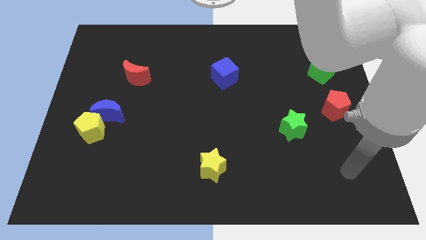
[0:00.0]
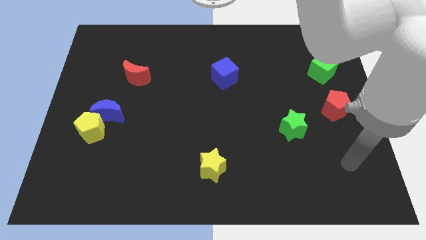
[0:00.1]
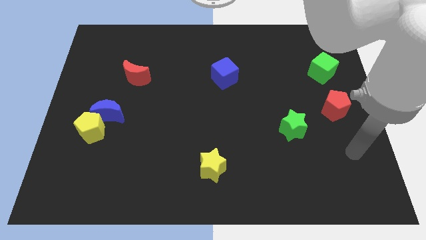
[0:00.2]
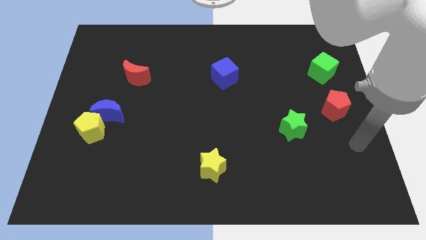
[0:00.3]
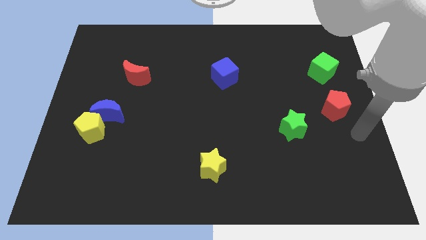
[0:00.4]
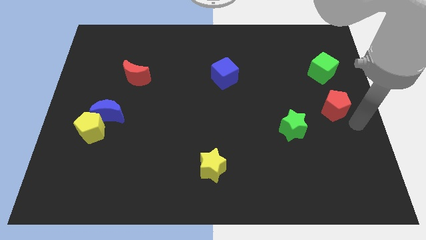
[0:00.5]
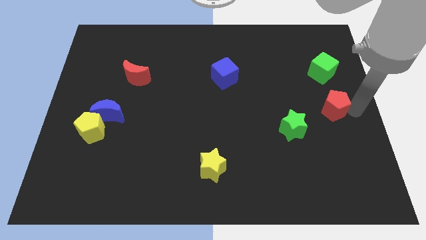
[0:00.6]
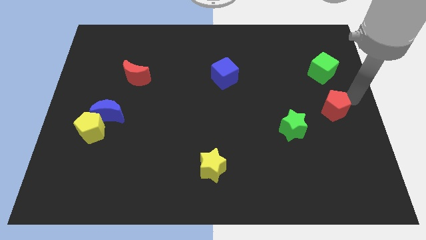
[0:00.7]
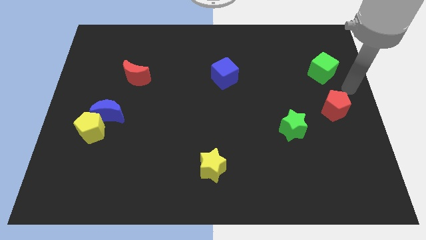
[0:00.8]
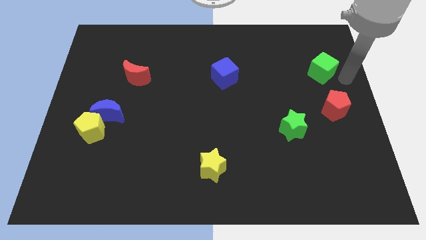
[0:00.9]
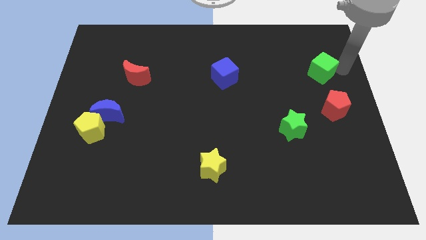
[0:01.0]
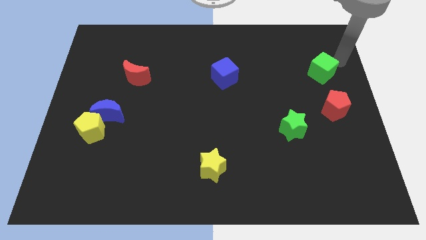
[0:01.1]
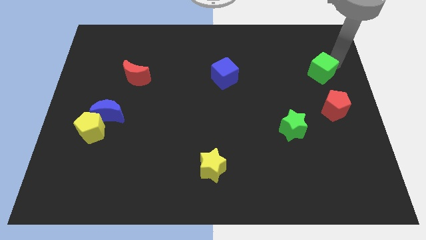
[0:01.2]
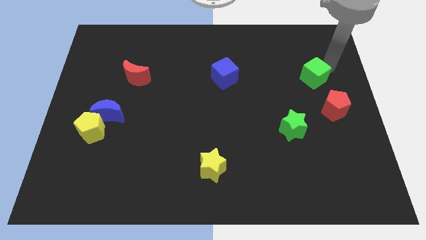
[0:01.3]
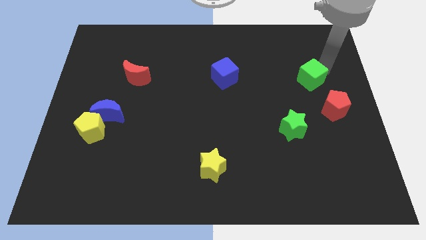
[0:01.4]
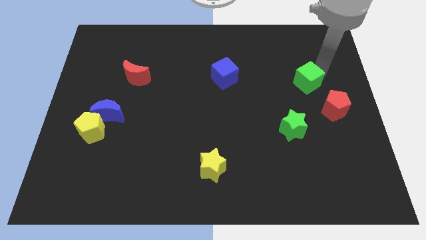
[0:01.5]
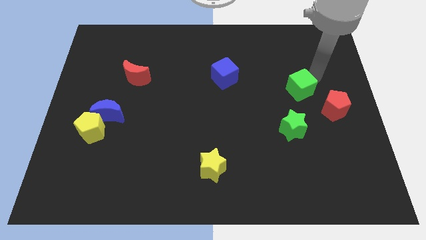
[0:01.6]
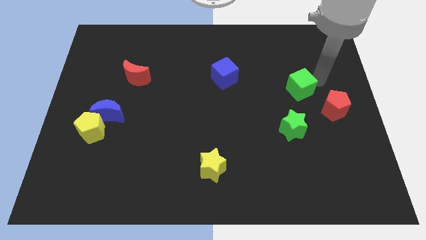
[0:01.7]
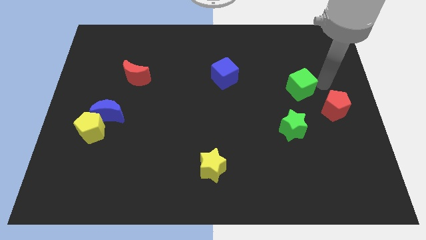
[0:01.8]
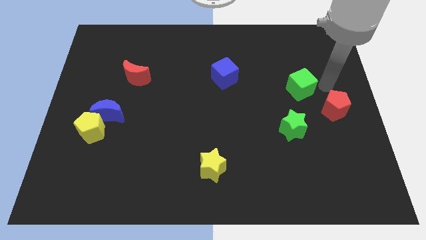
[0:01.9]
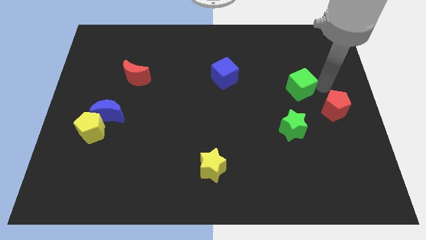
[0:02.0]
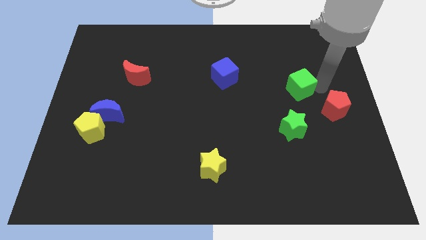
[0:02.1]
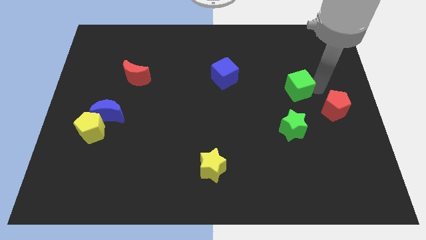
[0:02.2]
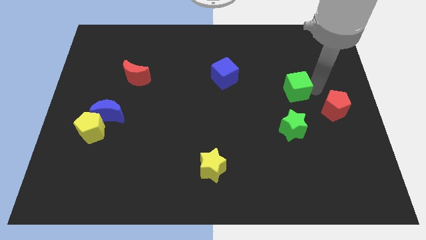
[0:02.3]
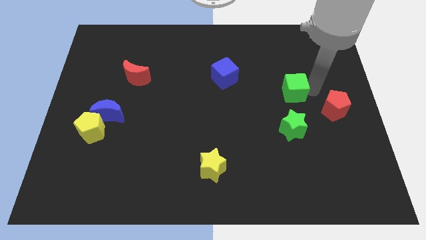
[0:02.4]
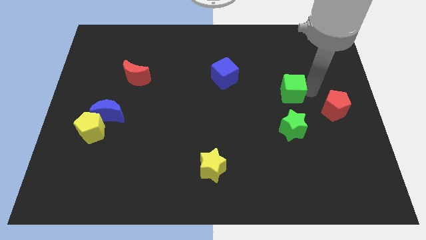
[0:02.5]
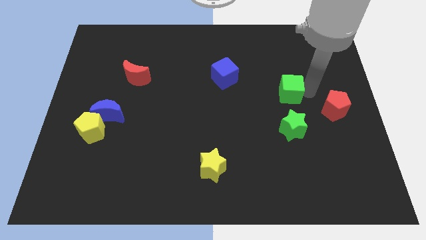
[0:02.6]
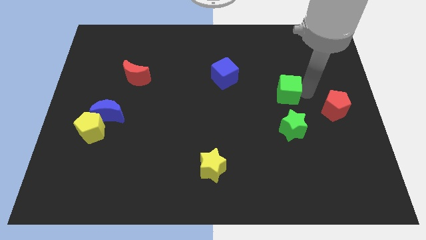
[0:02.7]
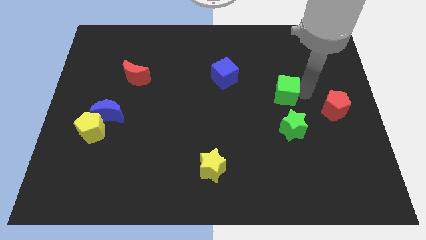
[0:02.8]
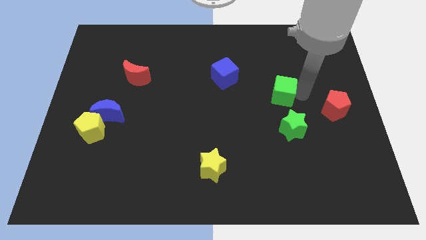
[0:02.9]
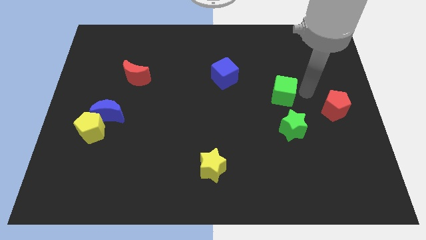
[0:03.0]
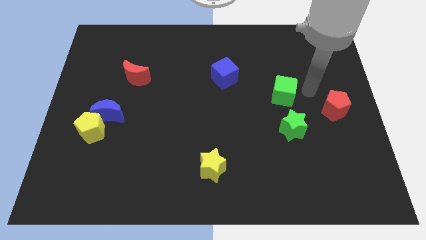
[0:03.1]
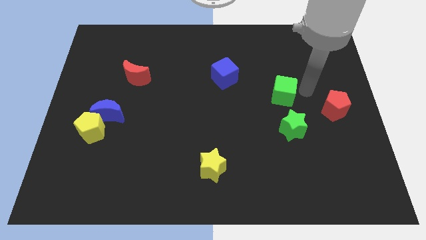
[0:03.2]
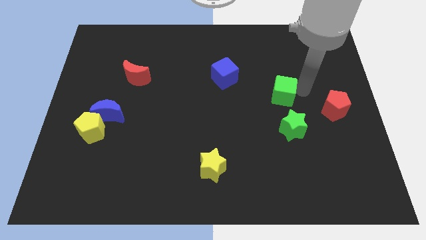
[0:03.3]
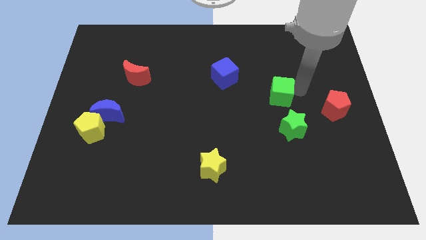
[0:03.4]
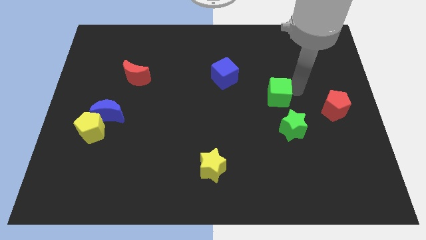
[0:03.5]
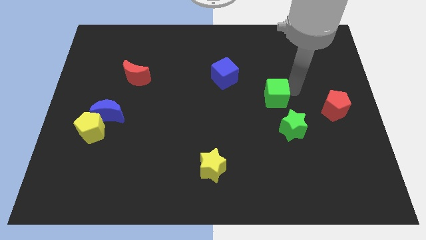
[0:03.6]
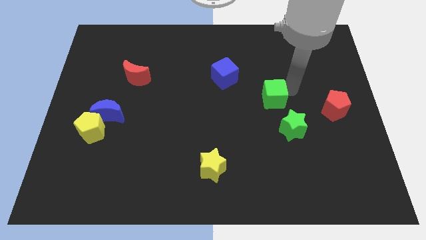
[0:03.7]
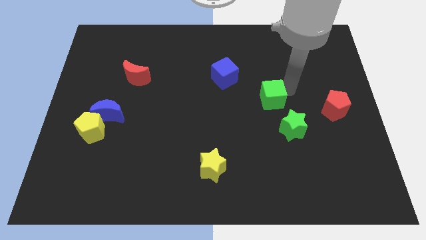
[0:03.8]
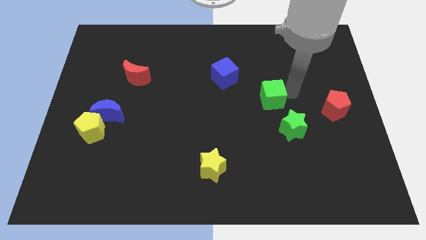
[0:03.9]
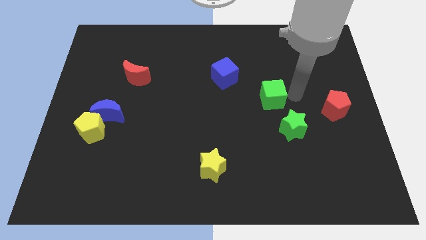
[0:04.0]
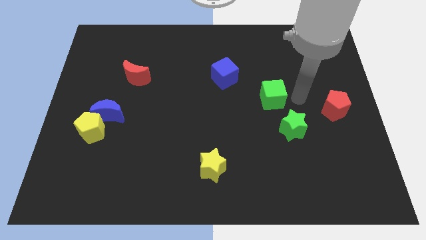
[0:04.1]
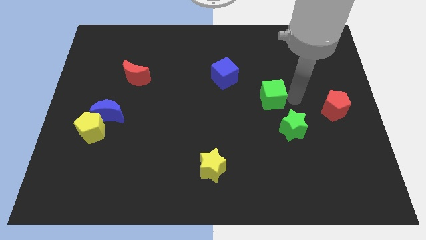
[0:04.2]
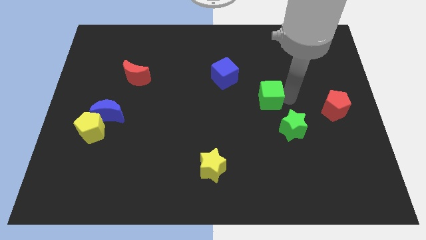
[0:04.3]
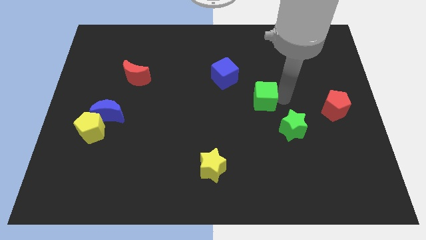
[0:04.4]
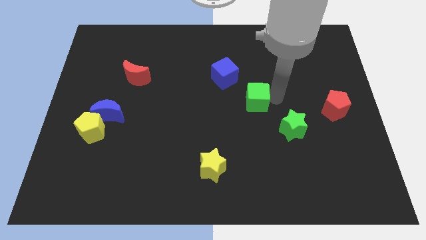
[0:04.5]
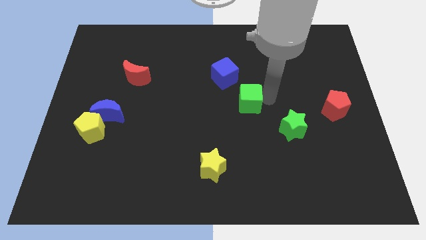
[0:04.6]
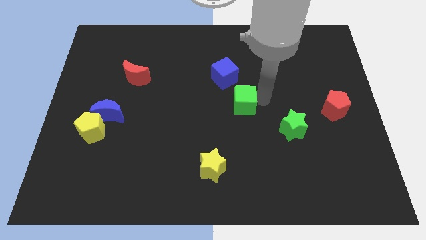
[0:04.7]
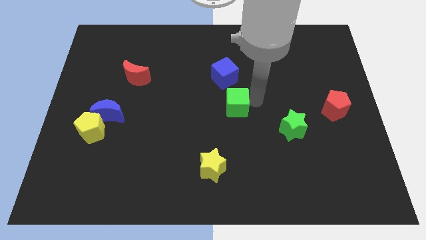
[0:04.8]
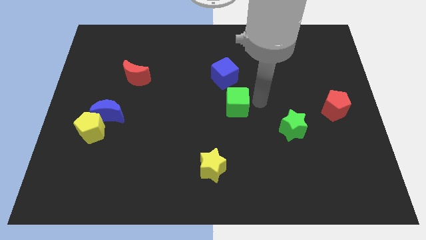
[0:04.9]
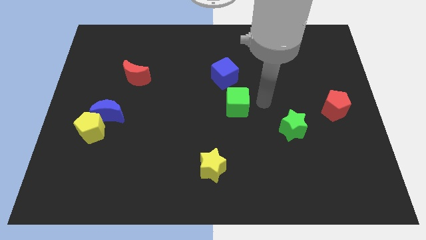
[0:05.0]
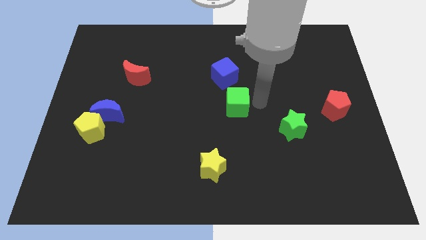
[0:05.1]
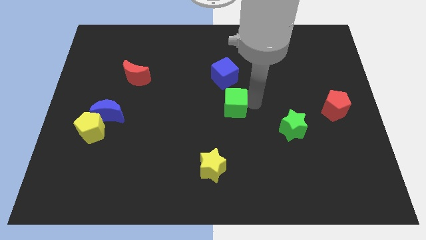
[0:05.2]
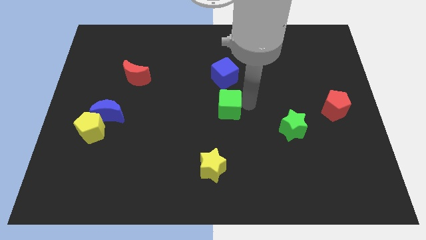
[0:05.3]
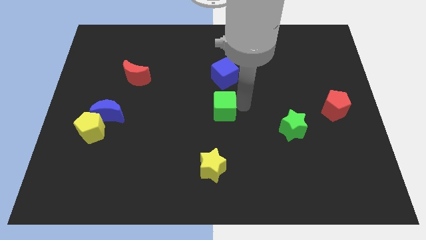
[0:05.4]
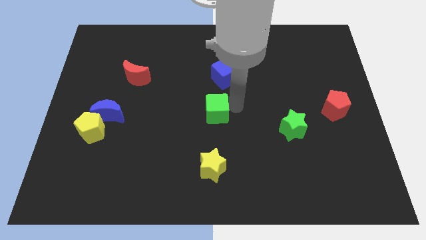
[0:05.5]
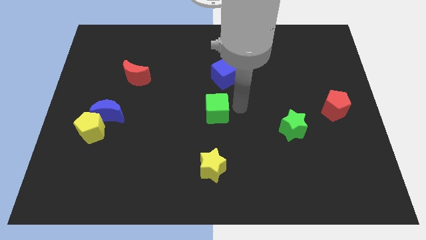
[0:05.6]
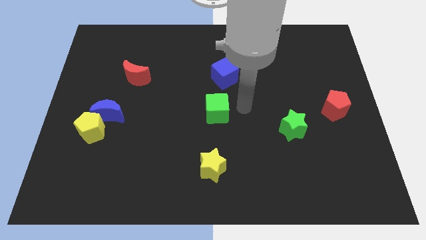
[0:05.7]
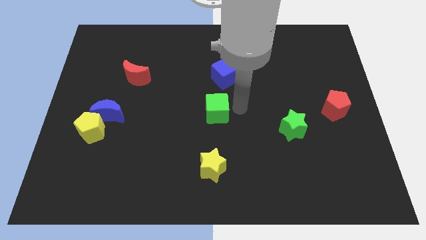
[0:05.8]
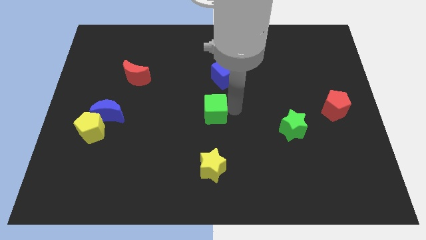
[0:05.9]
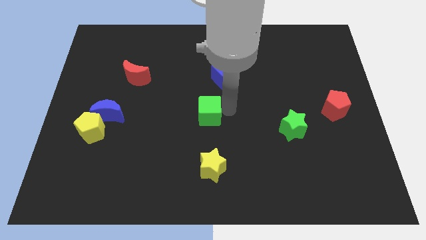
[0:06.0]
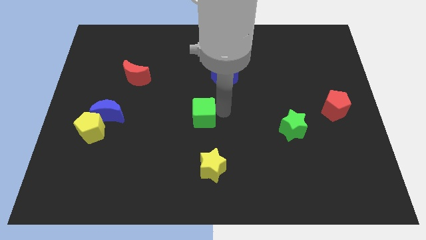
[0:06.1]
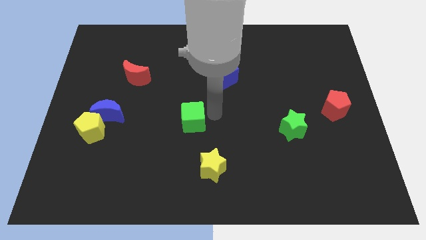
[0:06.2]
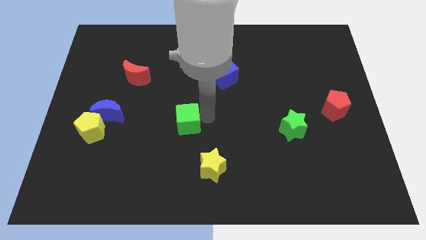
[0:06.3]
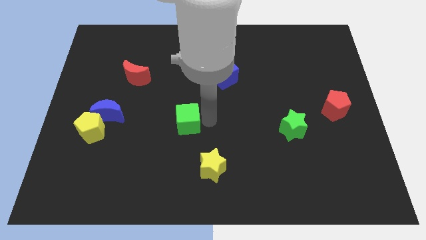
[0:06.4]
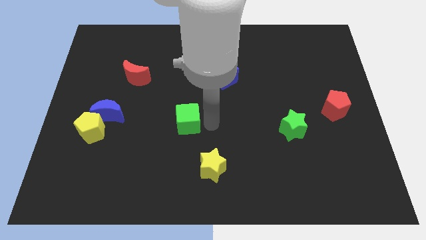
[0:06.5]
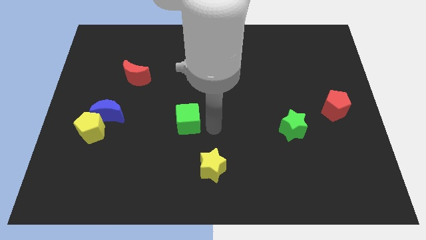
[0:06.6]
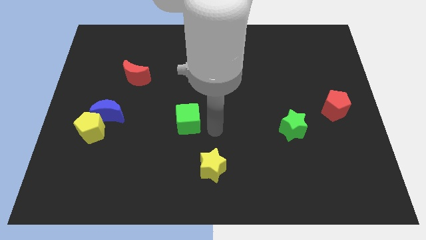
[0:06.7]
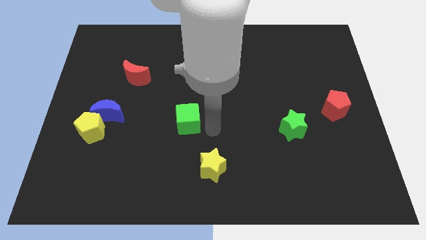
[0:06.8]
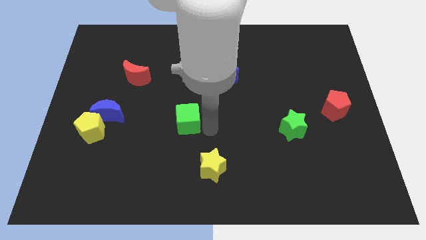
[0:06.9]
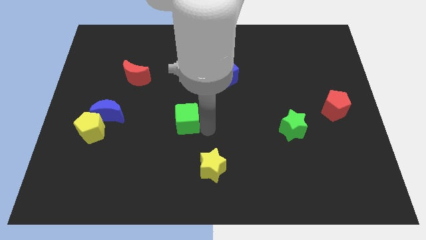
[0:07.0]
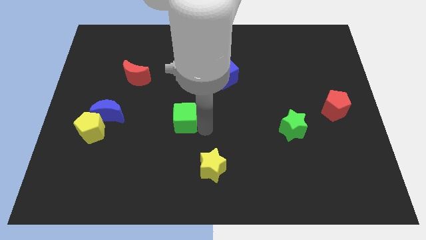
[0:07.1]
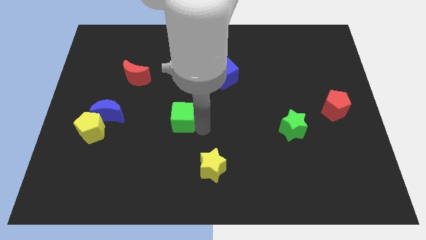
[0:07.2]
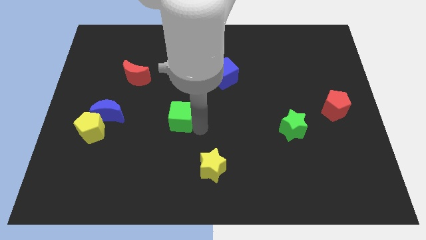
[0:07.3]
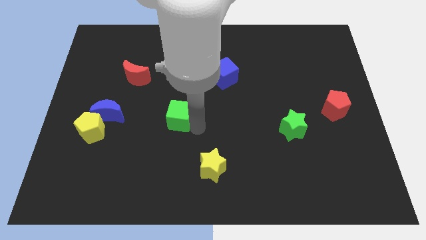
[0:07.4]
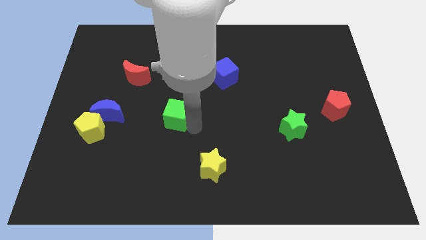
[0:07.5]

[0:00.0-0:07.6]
slide the green cube to the right side of the blue moon
